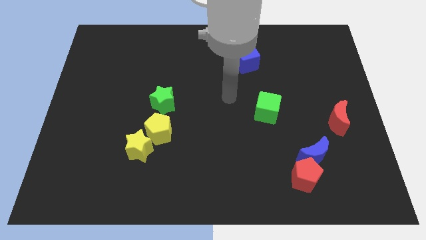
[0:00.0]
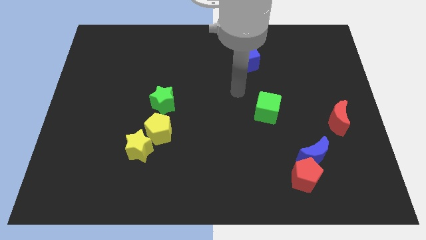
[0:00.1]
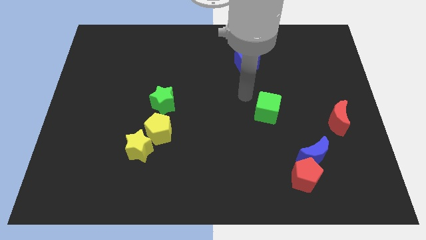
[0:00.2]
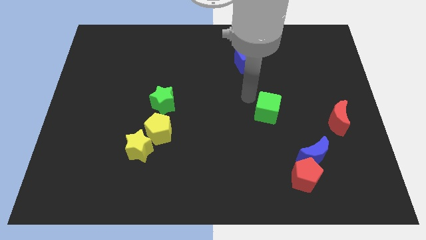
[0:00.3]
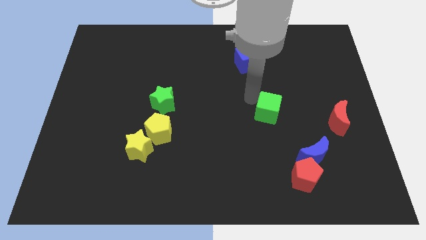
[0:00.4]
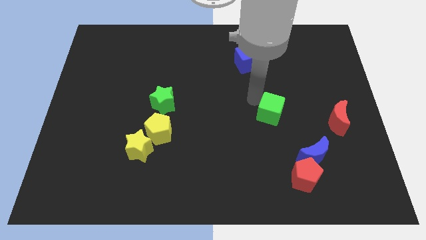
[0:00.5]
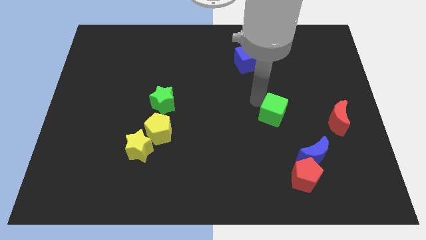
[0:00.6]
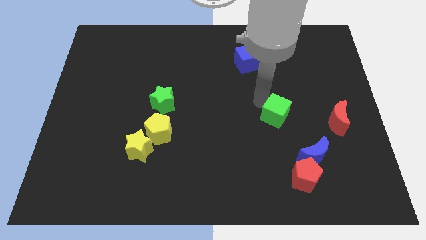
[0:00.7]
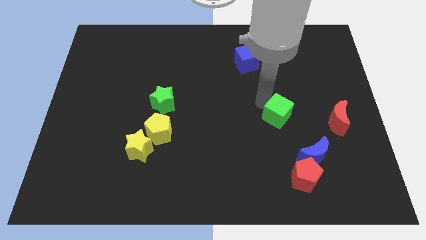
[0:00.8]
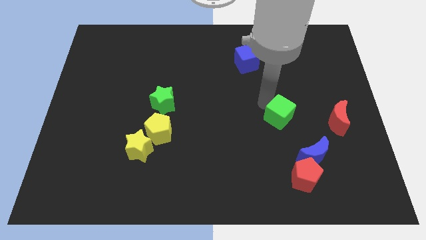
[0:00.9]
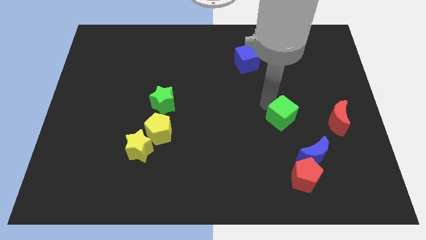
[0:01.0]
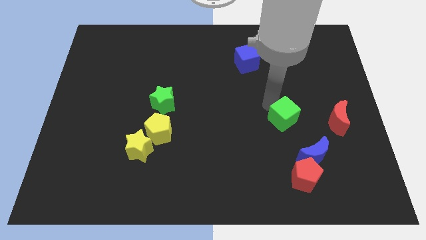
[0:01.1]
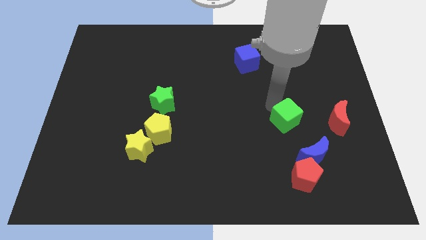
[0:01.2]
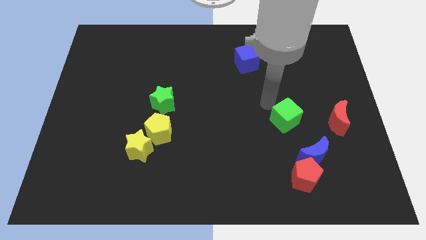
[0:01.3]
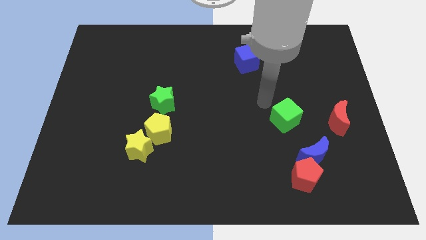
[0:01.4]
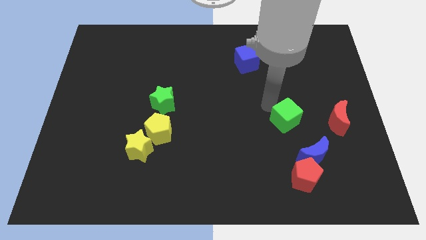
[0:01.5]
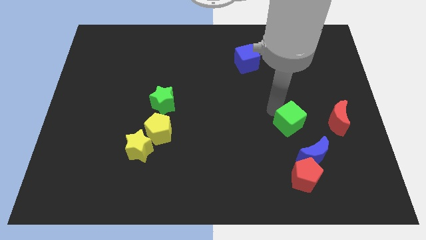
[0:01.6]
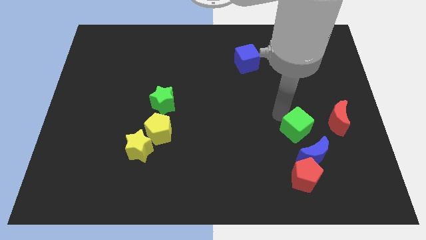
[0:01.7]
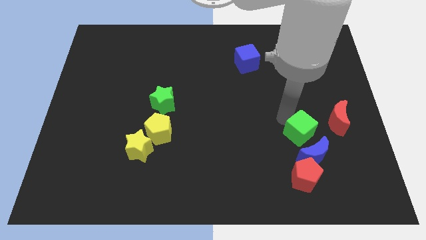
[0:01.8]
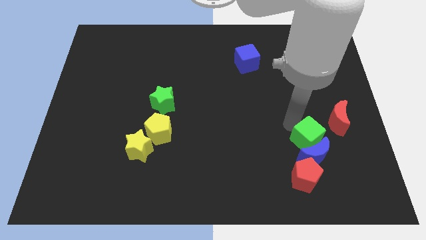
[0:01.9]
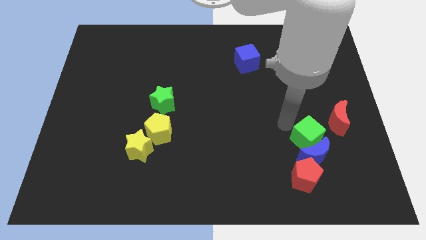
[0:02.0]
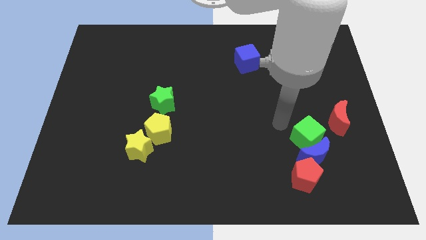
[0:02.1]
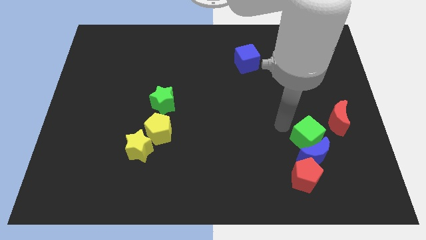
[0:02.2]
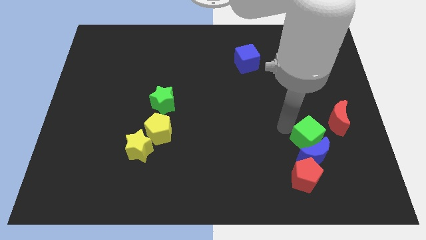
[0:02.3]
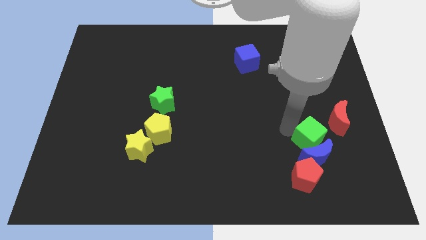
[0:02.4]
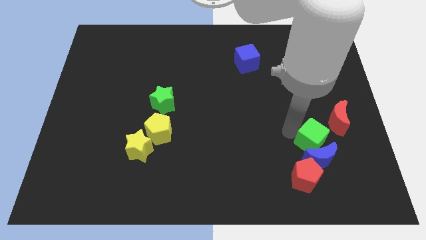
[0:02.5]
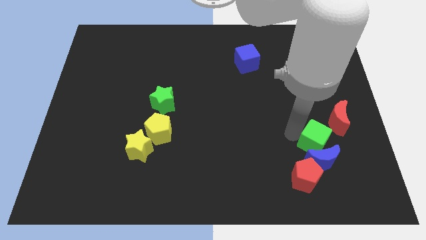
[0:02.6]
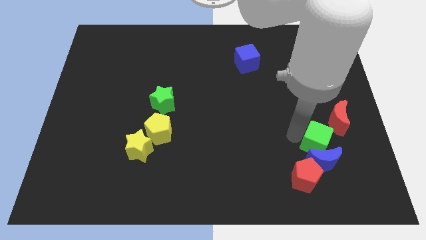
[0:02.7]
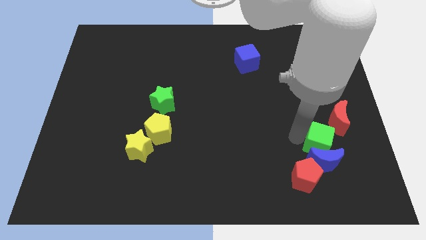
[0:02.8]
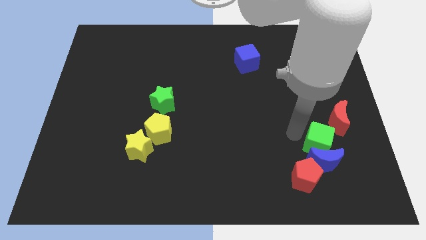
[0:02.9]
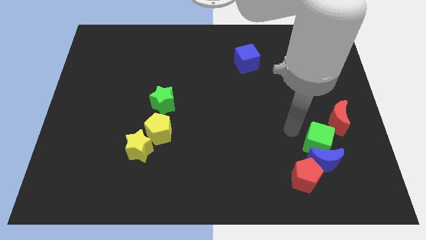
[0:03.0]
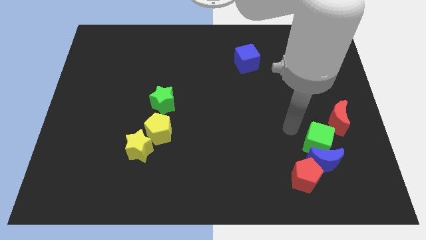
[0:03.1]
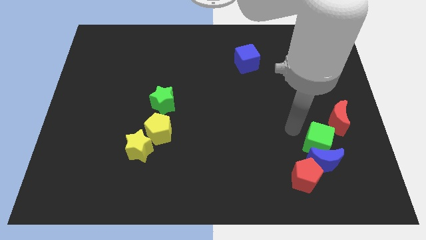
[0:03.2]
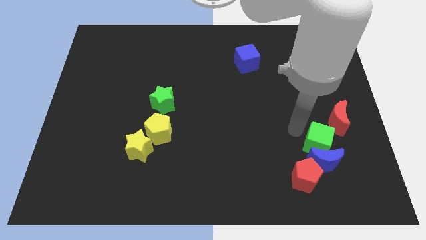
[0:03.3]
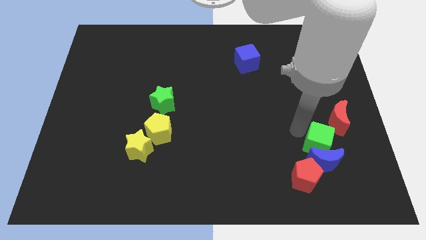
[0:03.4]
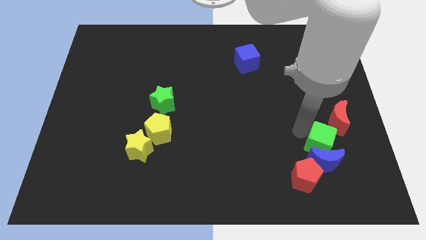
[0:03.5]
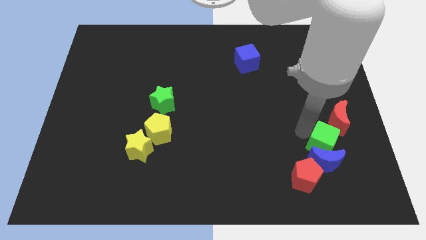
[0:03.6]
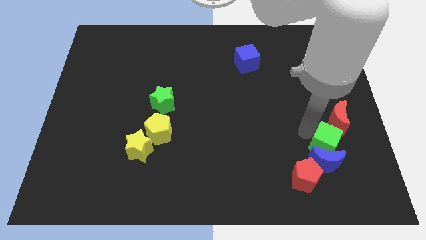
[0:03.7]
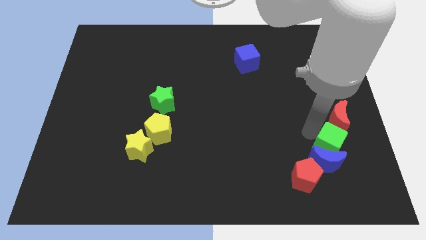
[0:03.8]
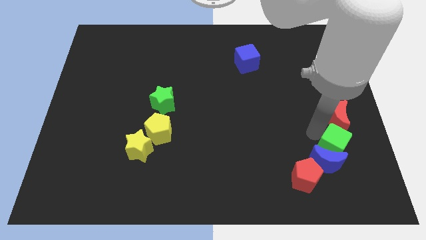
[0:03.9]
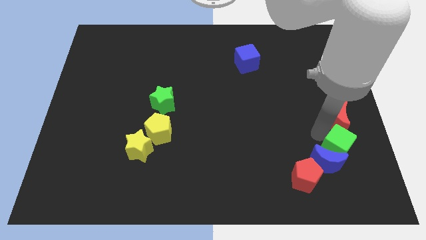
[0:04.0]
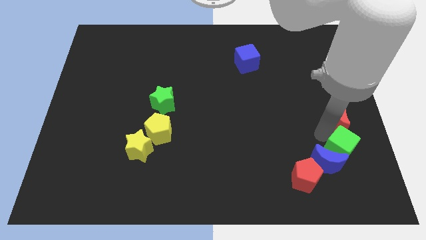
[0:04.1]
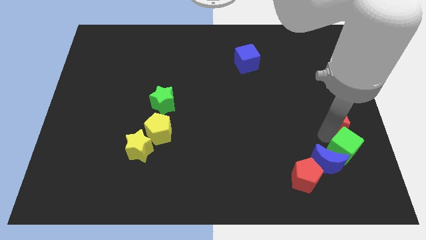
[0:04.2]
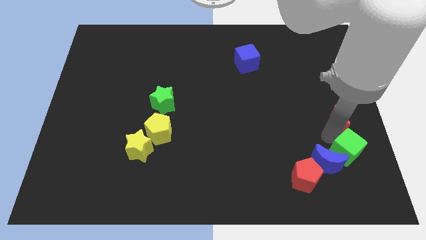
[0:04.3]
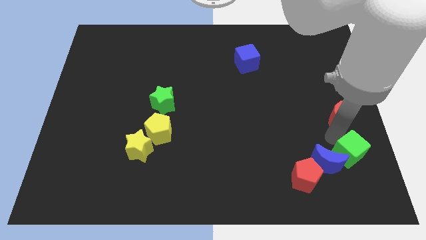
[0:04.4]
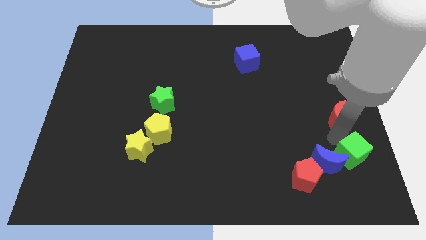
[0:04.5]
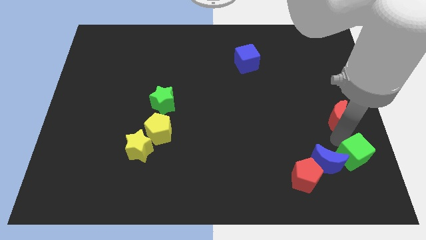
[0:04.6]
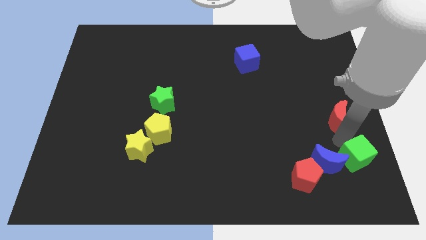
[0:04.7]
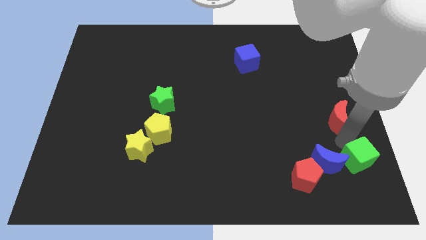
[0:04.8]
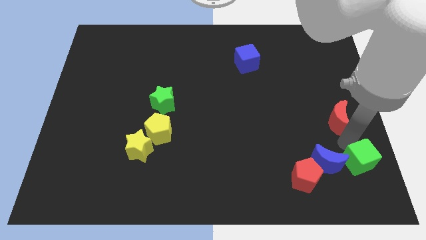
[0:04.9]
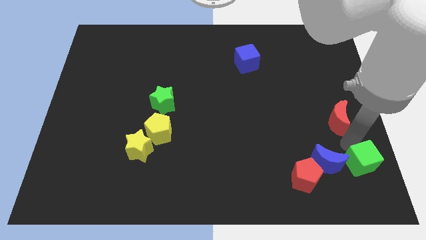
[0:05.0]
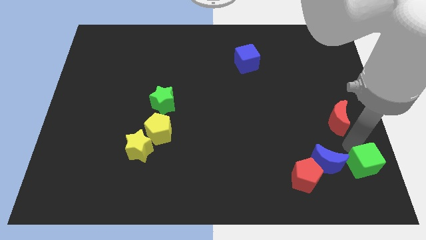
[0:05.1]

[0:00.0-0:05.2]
move the green cube to the bottom right of the board

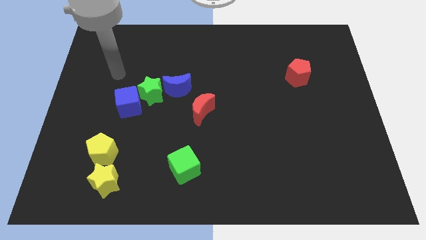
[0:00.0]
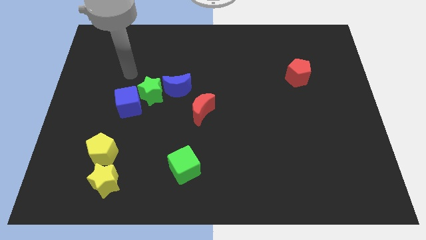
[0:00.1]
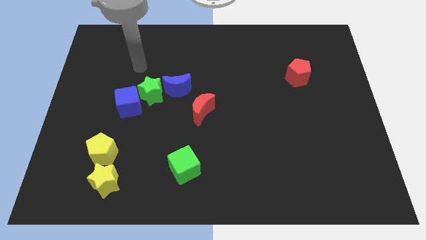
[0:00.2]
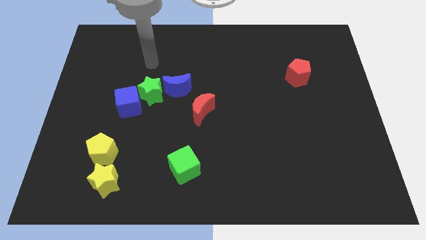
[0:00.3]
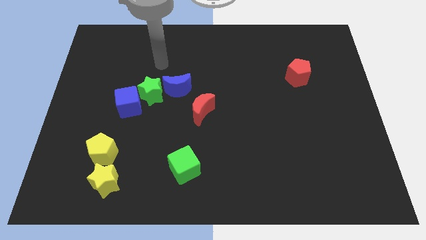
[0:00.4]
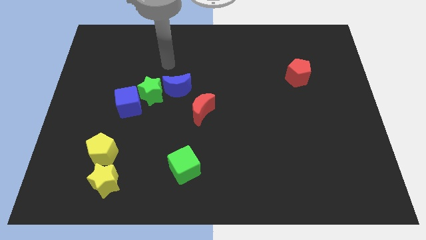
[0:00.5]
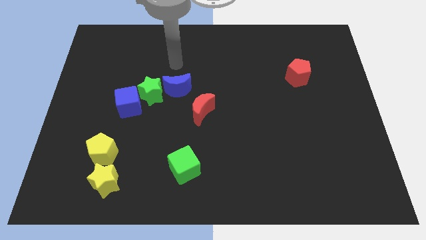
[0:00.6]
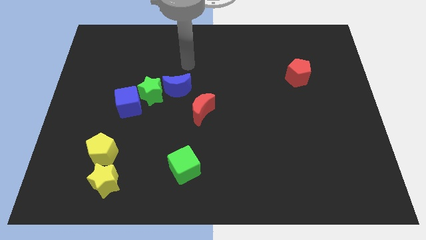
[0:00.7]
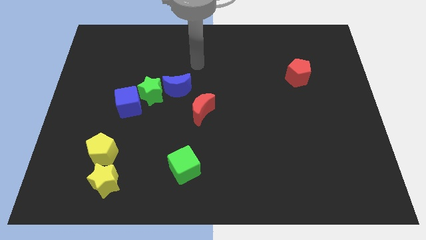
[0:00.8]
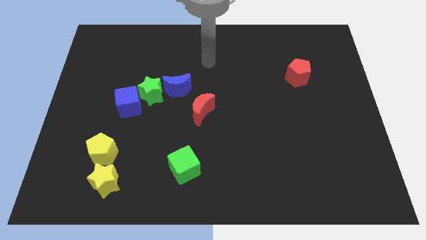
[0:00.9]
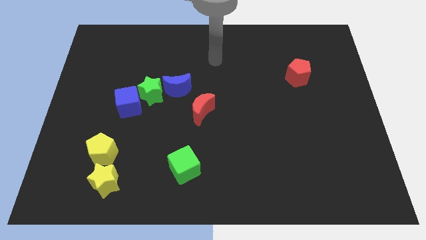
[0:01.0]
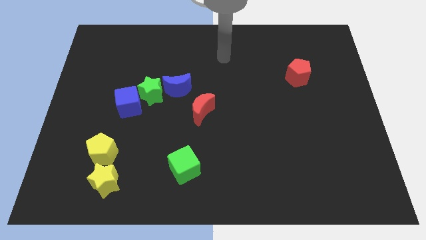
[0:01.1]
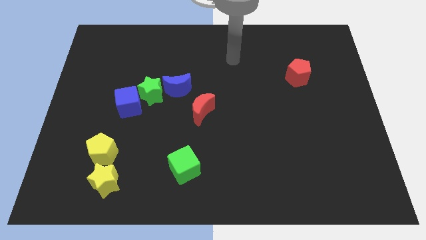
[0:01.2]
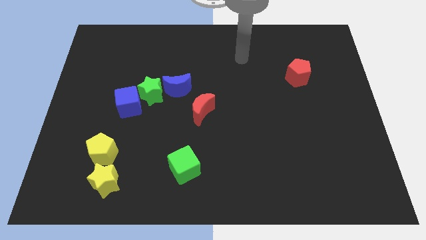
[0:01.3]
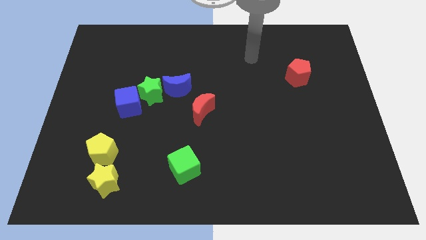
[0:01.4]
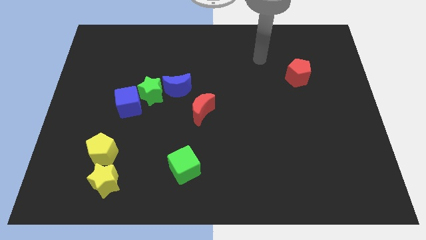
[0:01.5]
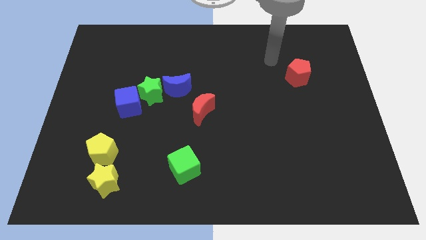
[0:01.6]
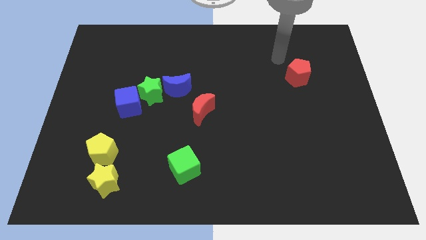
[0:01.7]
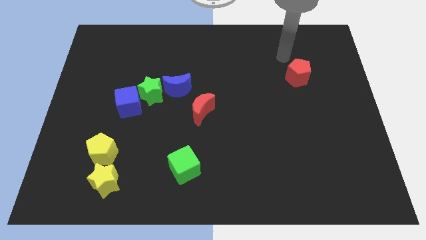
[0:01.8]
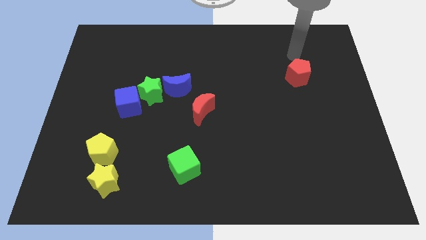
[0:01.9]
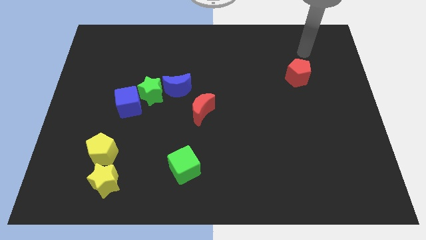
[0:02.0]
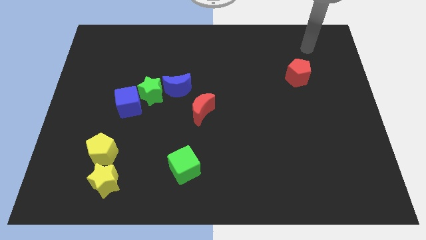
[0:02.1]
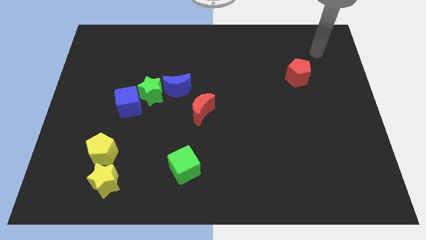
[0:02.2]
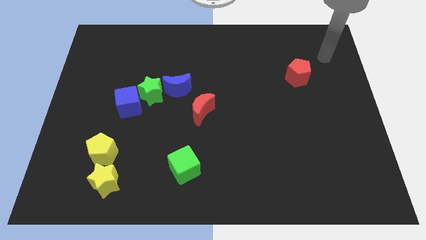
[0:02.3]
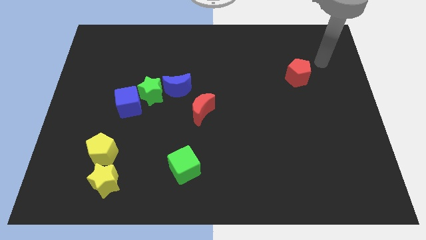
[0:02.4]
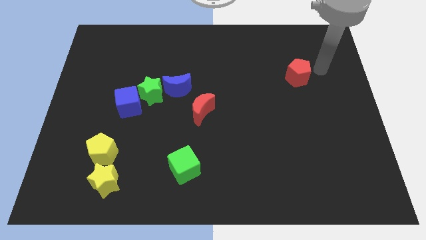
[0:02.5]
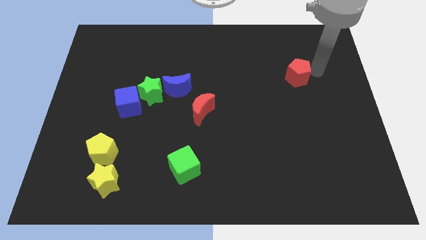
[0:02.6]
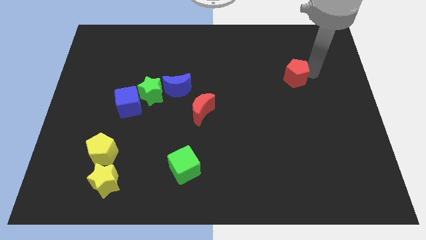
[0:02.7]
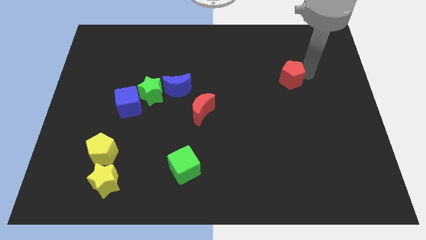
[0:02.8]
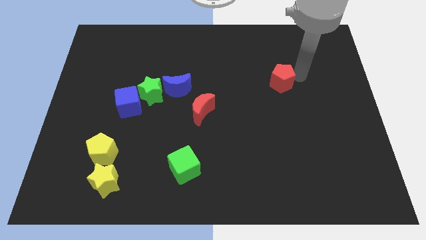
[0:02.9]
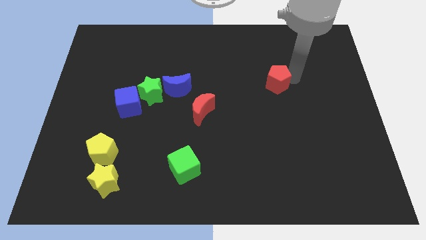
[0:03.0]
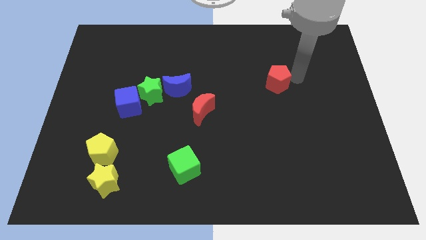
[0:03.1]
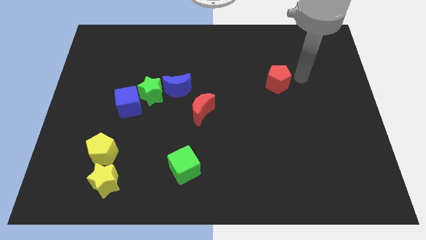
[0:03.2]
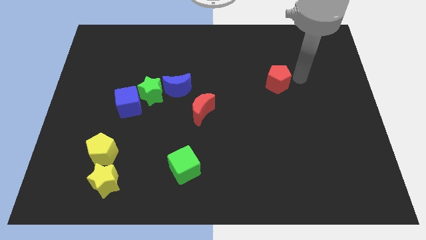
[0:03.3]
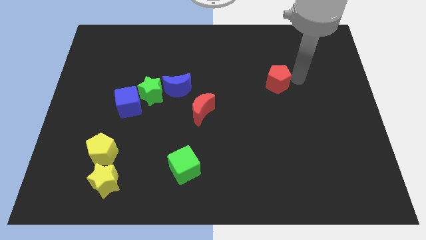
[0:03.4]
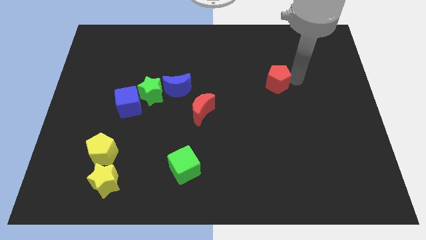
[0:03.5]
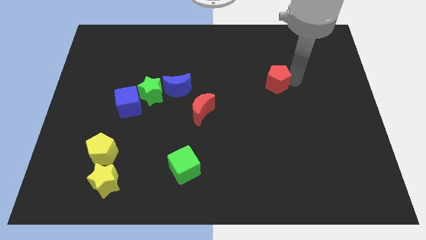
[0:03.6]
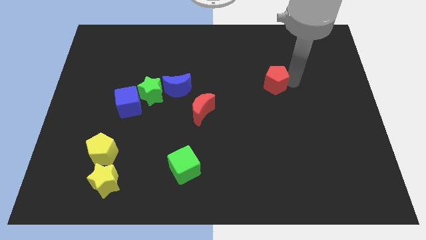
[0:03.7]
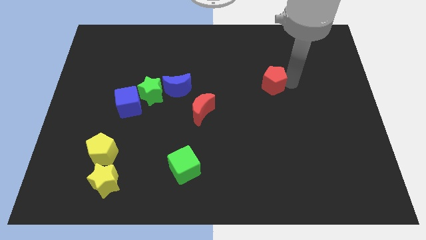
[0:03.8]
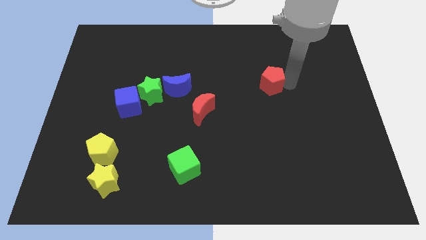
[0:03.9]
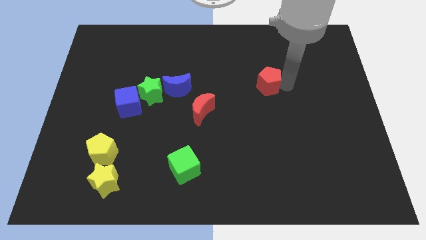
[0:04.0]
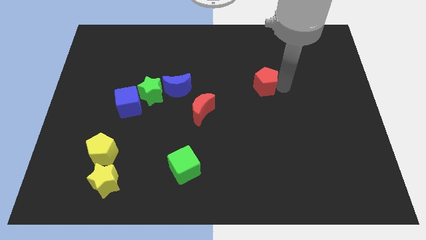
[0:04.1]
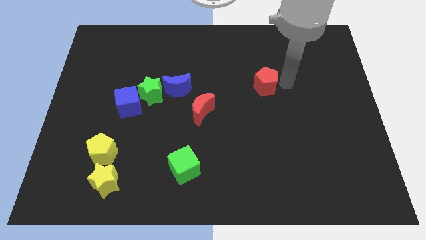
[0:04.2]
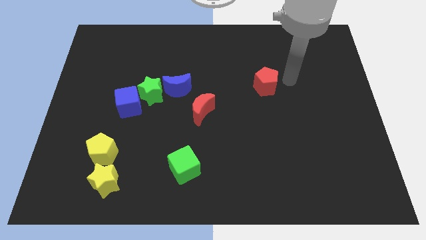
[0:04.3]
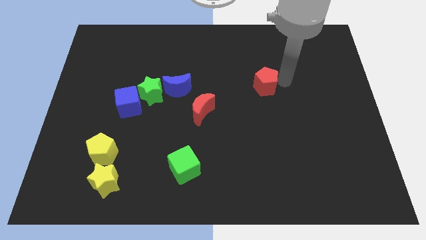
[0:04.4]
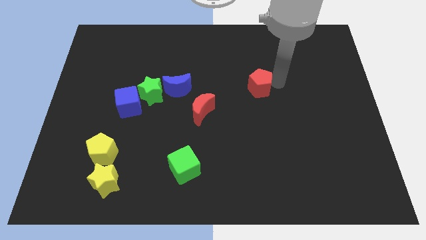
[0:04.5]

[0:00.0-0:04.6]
slide the red pentagon to the middle of the board
